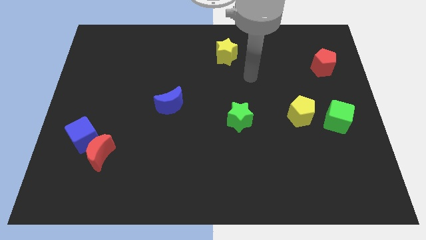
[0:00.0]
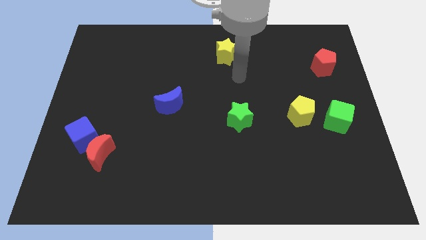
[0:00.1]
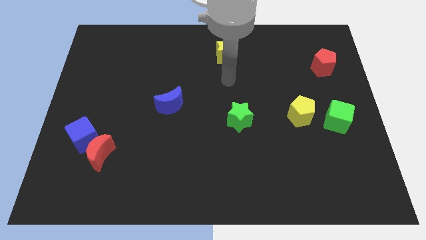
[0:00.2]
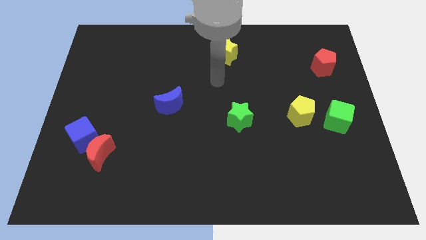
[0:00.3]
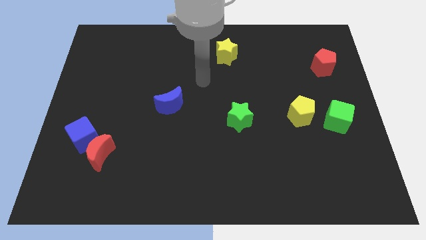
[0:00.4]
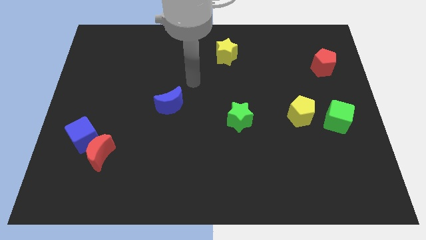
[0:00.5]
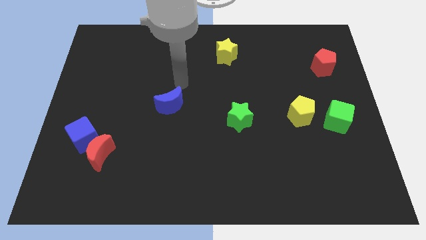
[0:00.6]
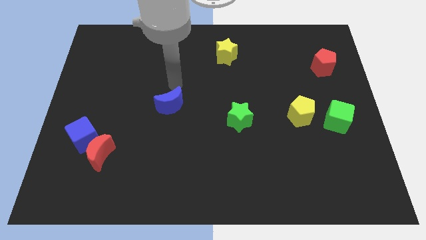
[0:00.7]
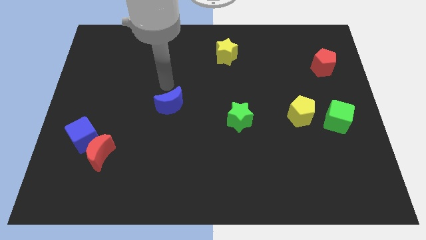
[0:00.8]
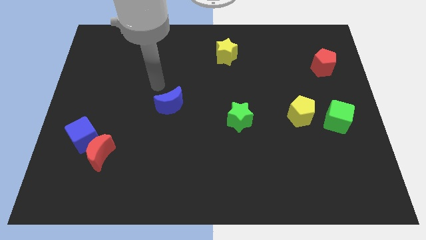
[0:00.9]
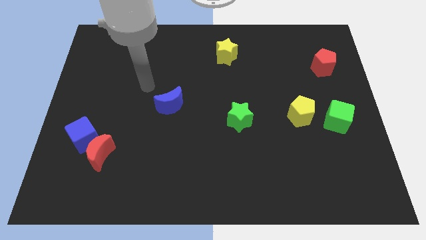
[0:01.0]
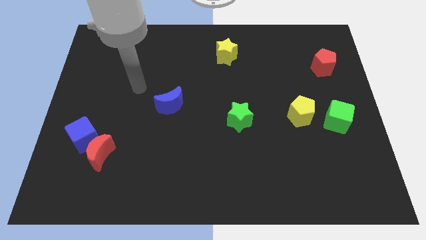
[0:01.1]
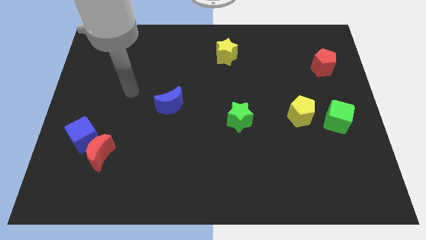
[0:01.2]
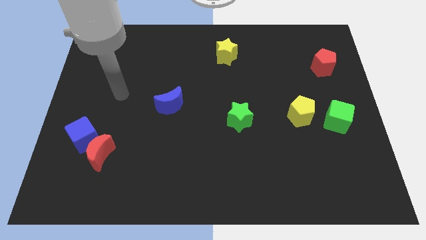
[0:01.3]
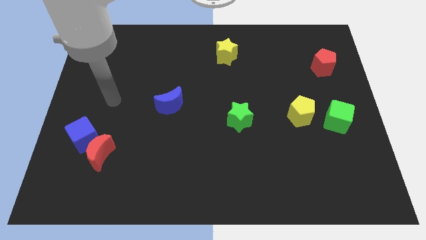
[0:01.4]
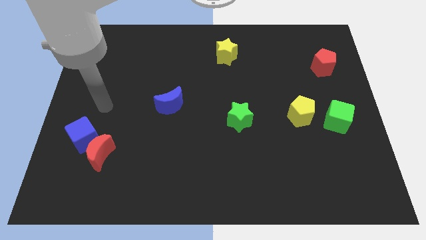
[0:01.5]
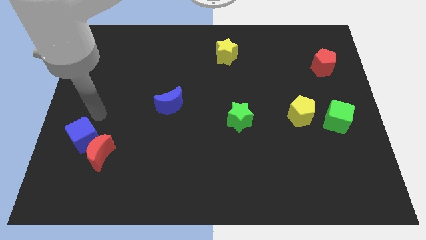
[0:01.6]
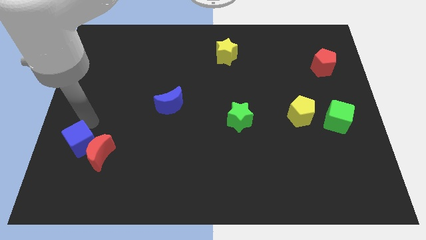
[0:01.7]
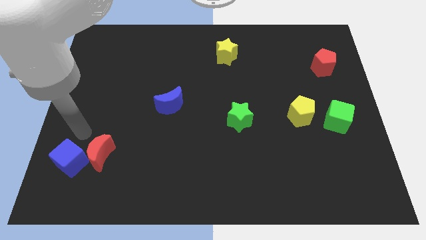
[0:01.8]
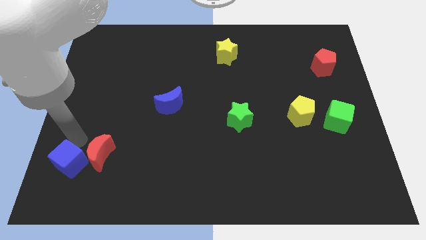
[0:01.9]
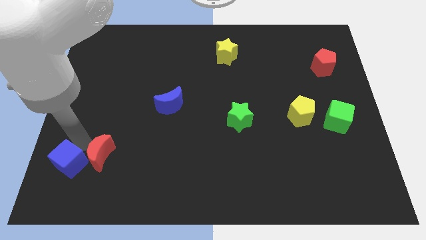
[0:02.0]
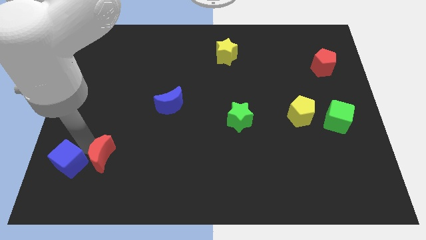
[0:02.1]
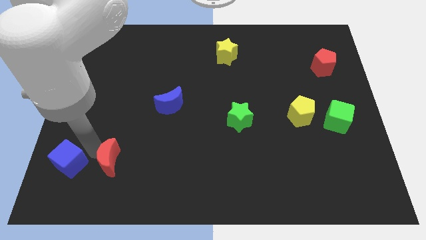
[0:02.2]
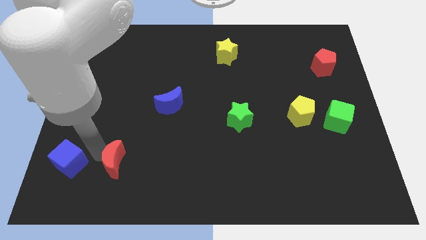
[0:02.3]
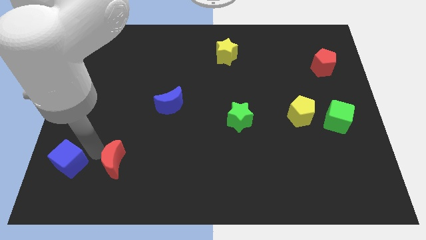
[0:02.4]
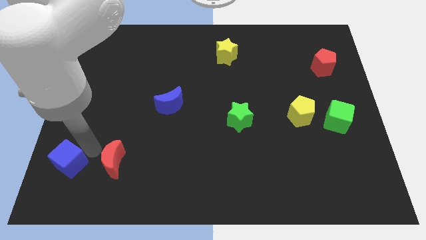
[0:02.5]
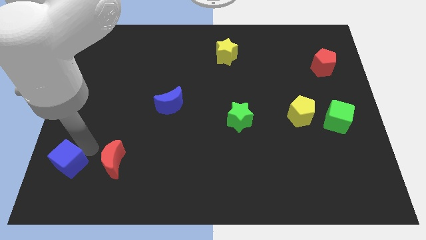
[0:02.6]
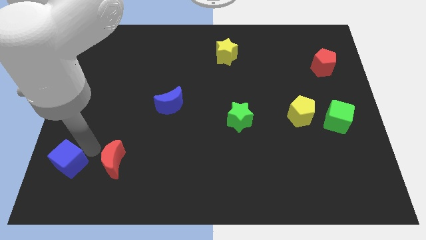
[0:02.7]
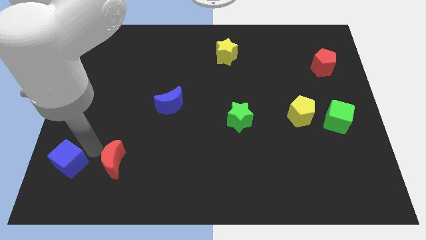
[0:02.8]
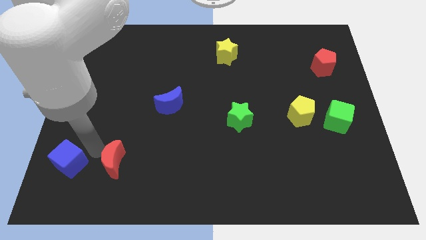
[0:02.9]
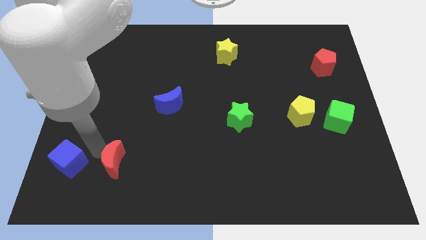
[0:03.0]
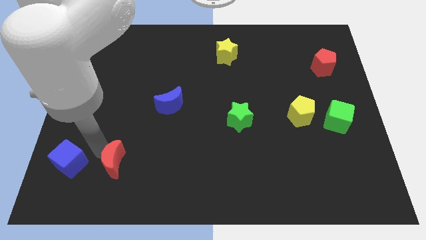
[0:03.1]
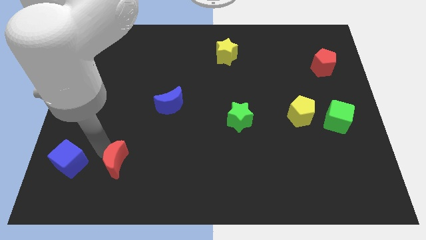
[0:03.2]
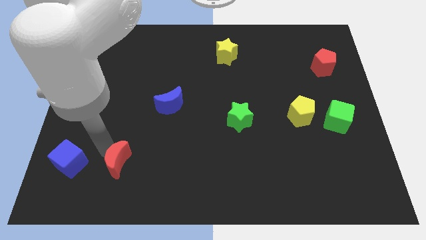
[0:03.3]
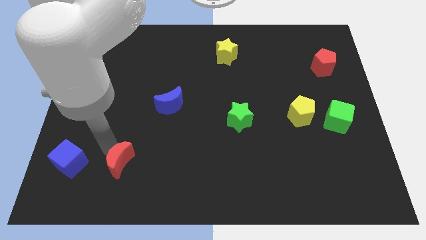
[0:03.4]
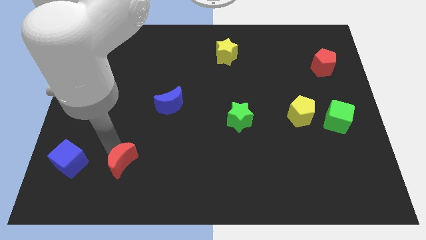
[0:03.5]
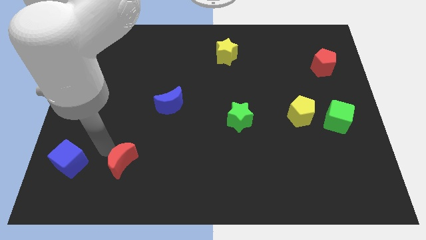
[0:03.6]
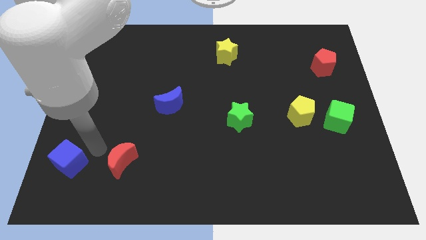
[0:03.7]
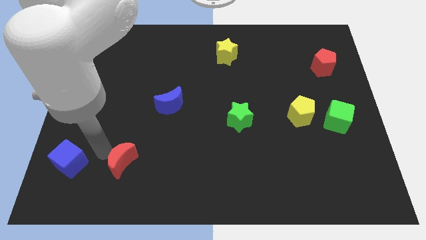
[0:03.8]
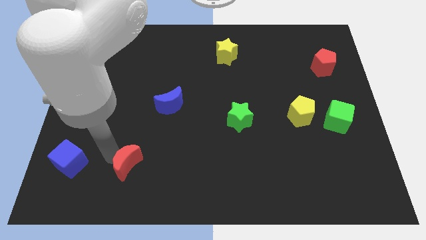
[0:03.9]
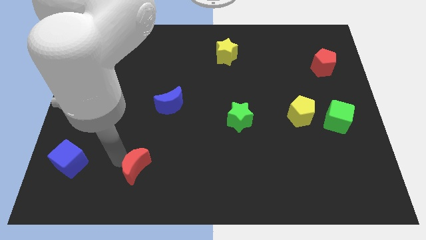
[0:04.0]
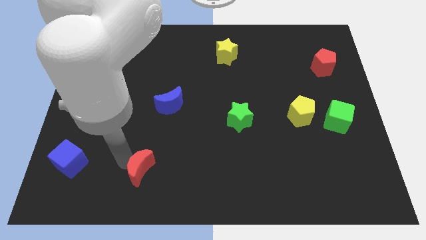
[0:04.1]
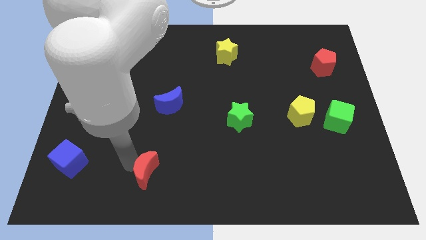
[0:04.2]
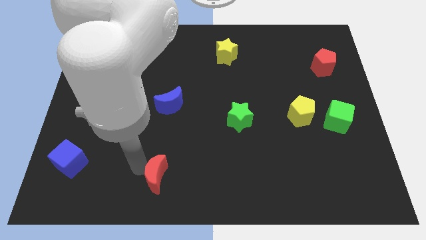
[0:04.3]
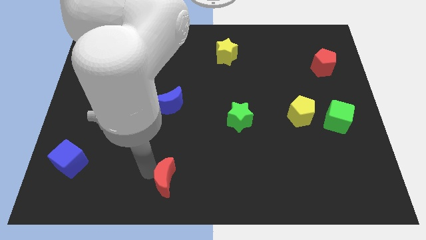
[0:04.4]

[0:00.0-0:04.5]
slide the red moon to the bottom

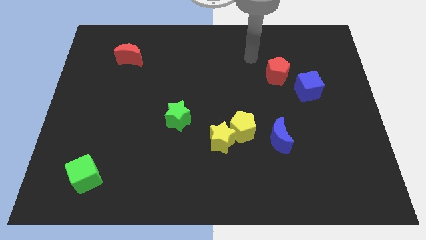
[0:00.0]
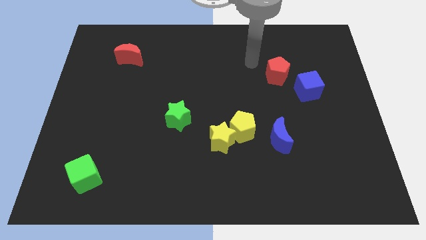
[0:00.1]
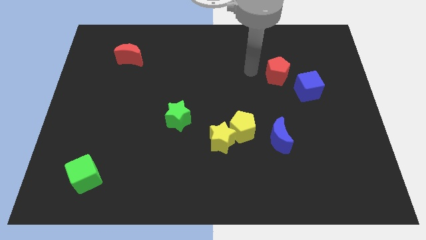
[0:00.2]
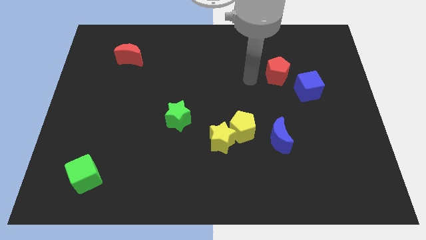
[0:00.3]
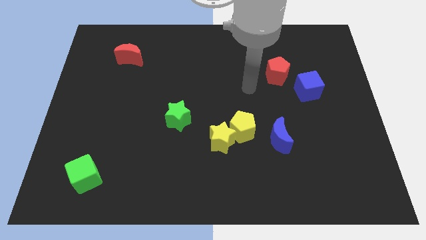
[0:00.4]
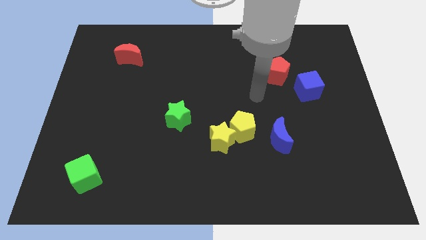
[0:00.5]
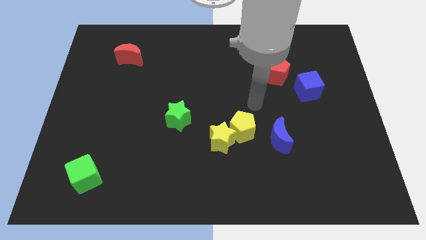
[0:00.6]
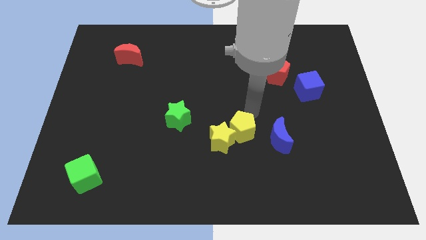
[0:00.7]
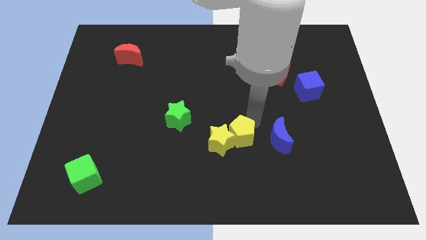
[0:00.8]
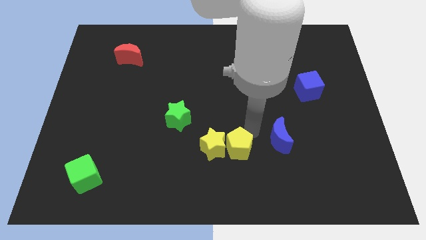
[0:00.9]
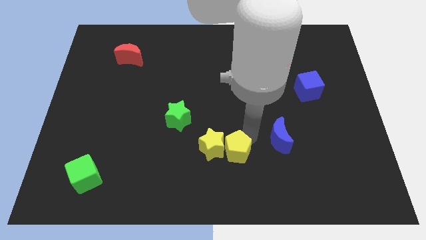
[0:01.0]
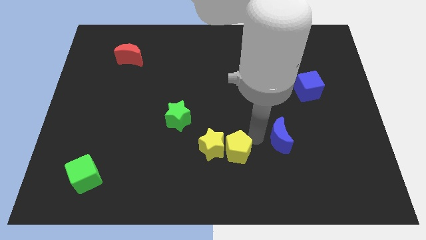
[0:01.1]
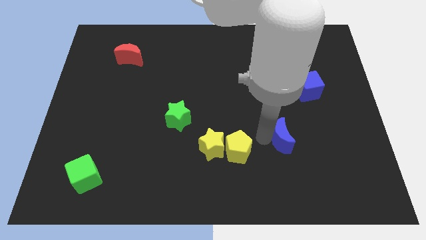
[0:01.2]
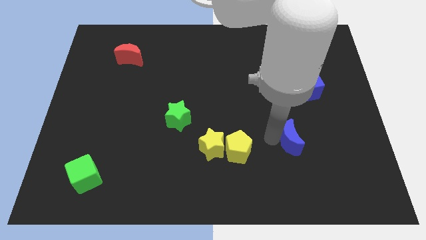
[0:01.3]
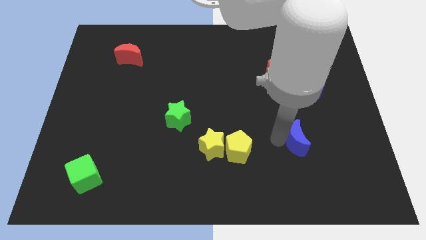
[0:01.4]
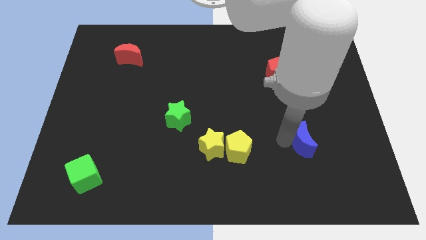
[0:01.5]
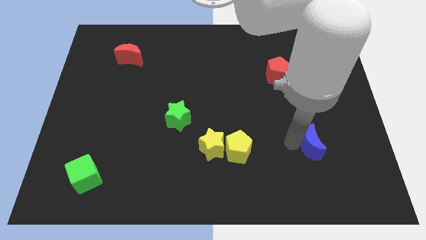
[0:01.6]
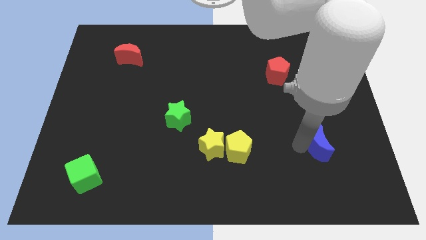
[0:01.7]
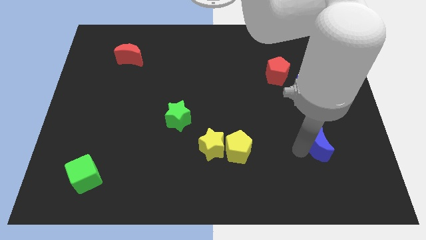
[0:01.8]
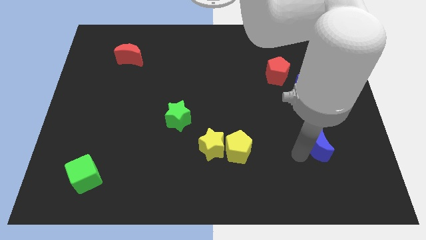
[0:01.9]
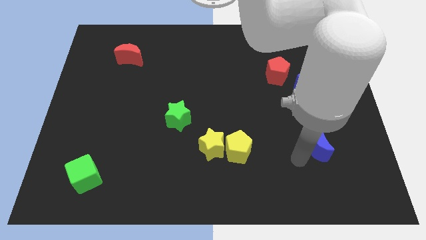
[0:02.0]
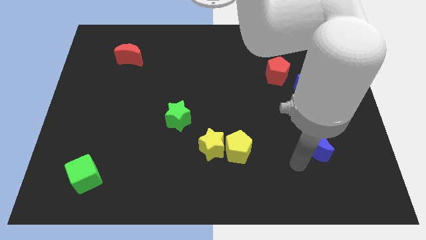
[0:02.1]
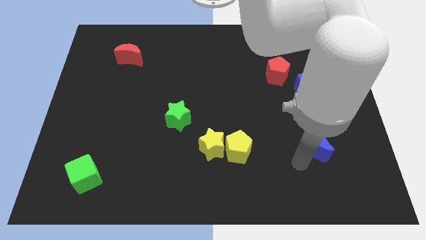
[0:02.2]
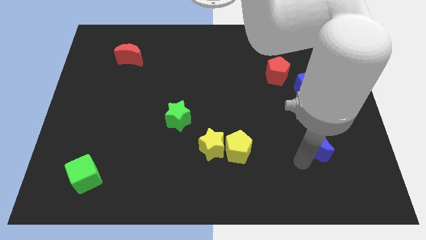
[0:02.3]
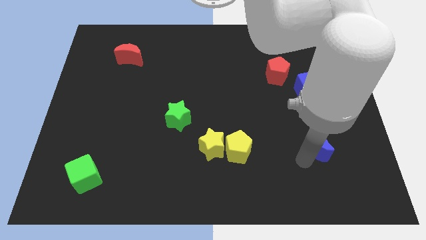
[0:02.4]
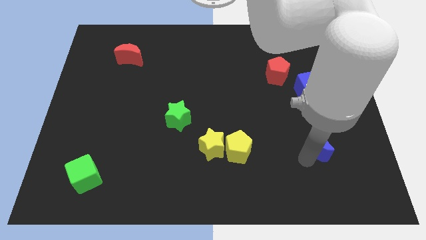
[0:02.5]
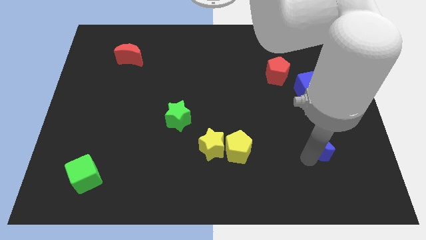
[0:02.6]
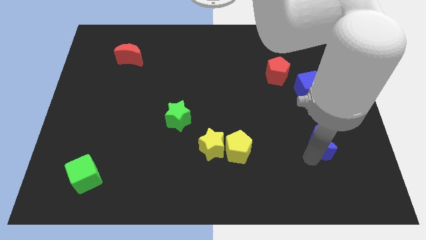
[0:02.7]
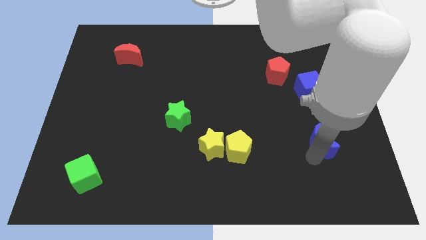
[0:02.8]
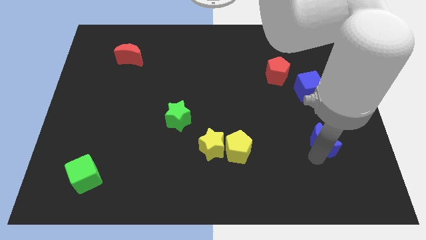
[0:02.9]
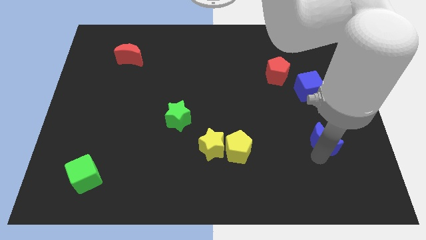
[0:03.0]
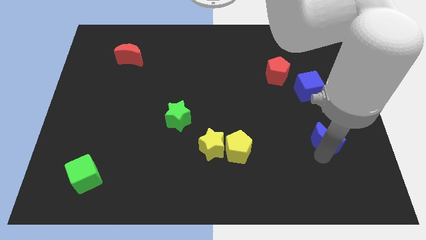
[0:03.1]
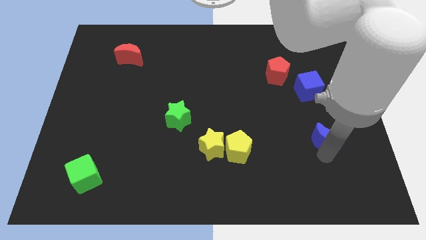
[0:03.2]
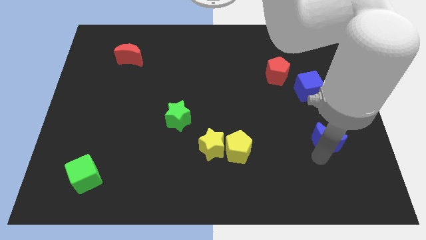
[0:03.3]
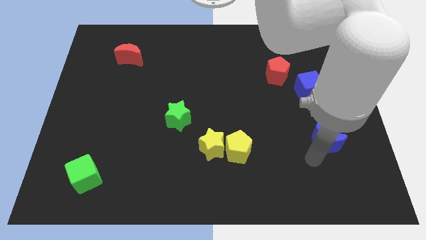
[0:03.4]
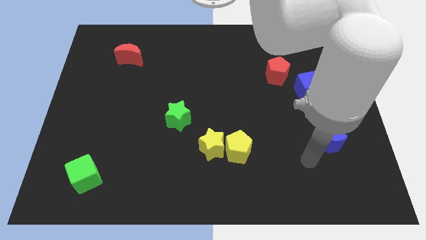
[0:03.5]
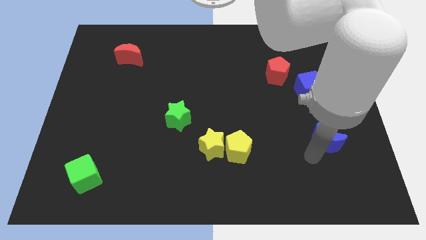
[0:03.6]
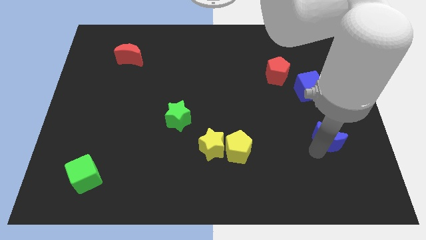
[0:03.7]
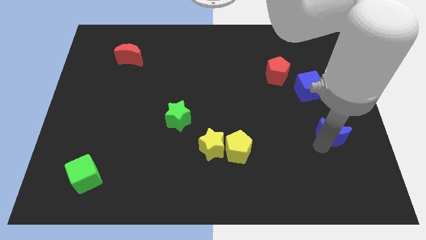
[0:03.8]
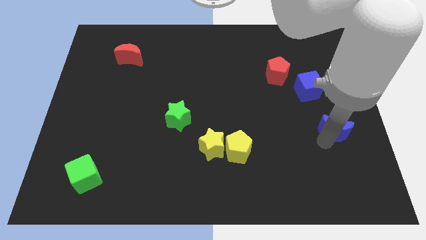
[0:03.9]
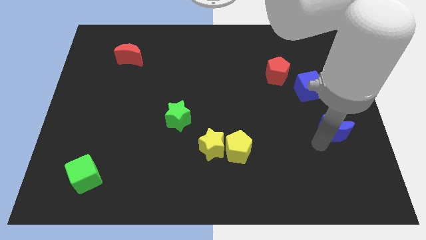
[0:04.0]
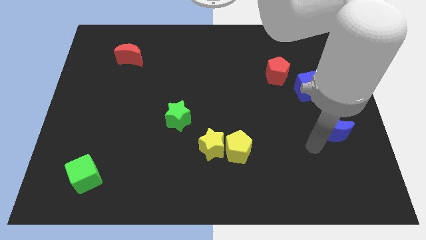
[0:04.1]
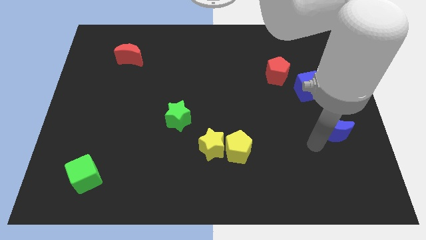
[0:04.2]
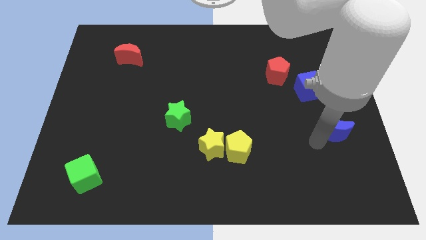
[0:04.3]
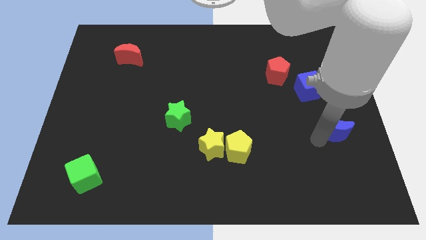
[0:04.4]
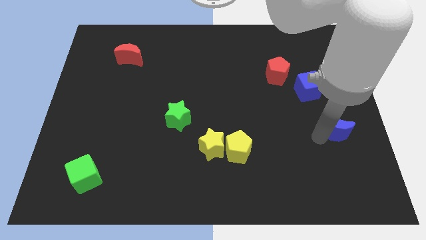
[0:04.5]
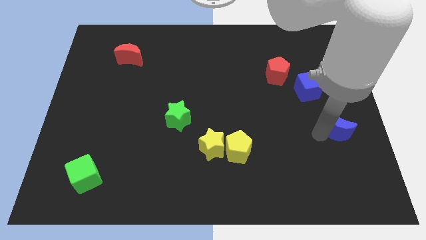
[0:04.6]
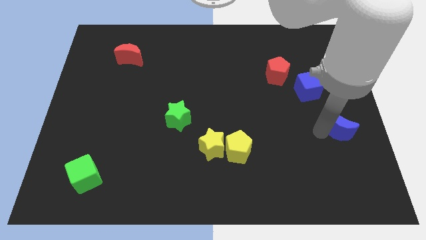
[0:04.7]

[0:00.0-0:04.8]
push the blue moon to the right side
